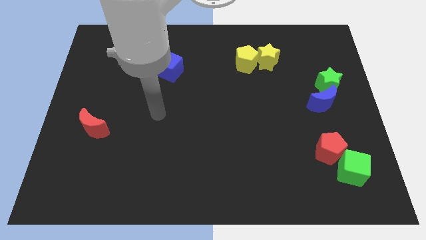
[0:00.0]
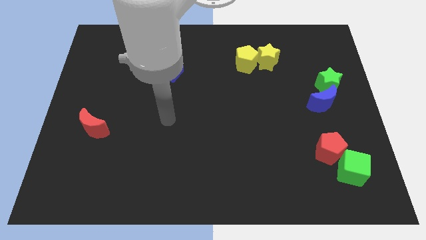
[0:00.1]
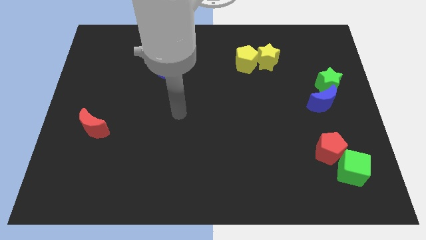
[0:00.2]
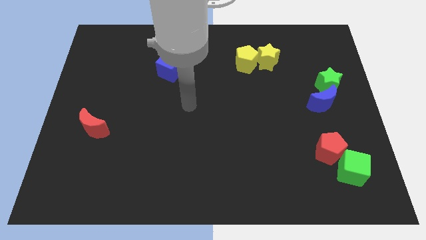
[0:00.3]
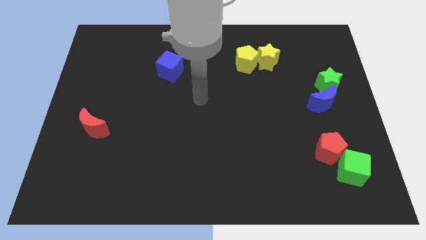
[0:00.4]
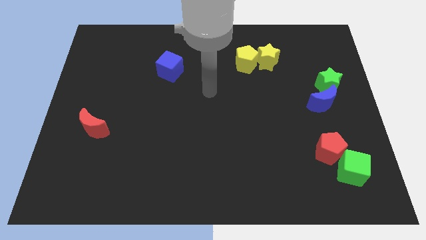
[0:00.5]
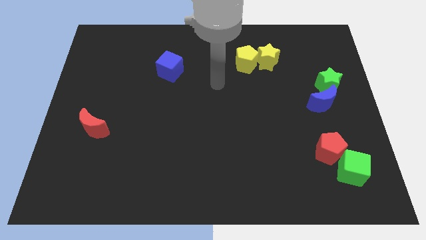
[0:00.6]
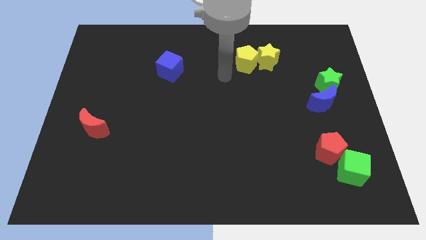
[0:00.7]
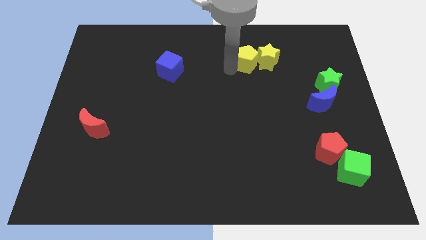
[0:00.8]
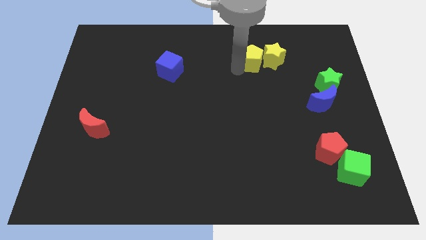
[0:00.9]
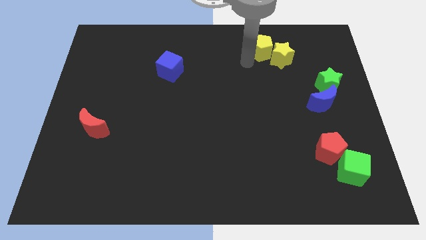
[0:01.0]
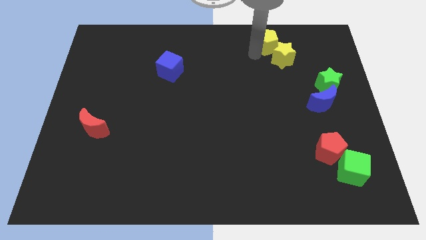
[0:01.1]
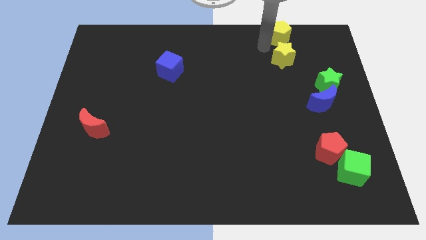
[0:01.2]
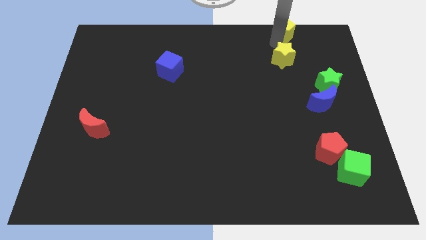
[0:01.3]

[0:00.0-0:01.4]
move the yellow star away from the yellow pentagon

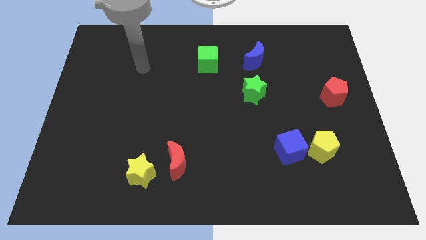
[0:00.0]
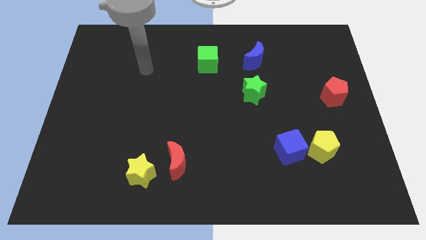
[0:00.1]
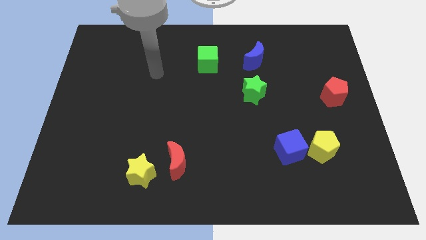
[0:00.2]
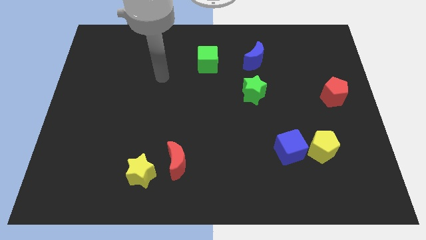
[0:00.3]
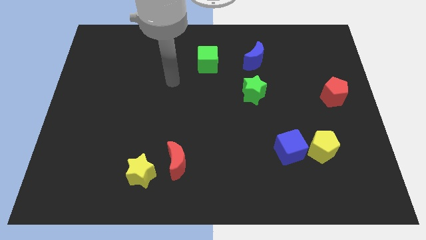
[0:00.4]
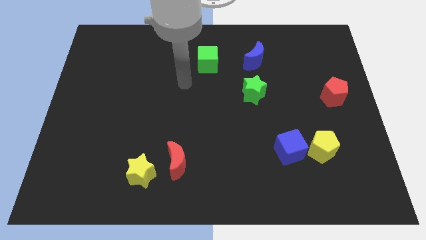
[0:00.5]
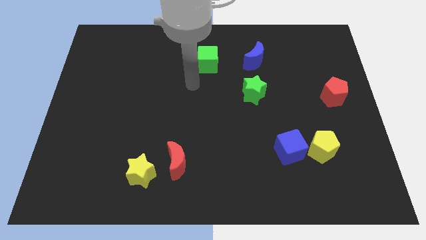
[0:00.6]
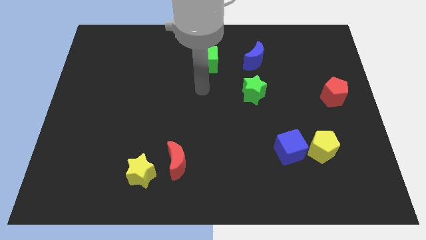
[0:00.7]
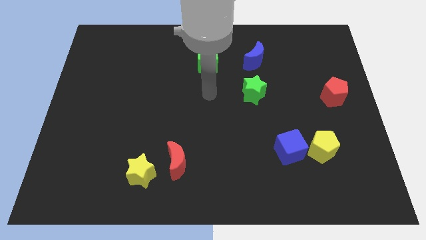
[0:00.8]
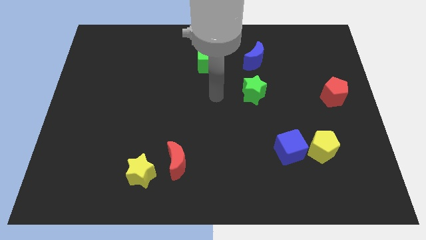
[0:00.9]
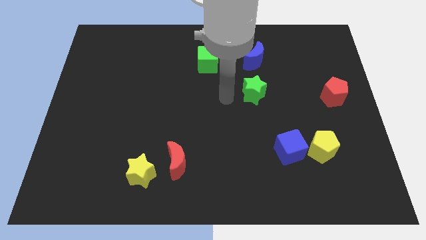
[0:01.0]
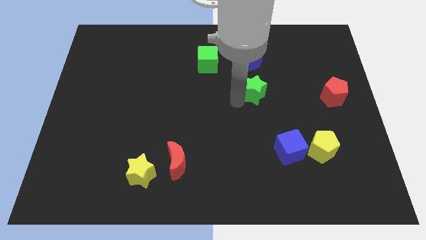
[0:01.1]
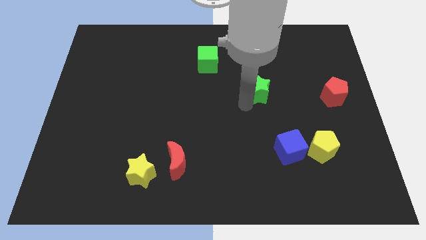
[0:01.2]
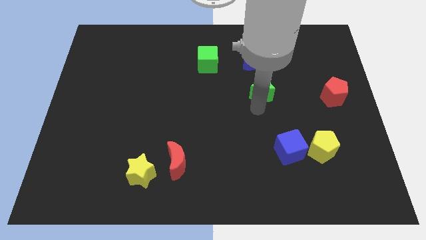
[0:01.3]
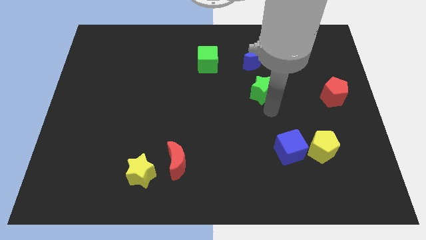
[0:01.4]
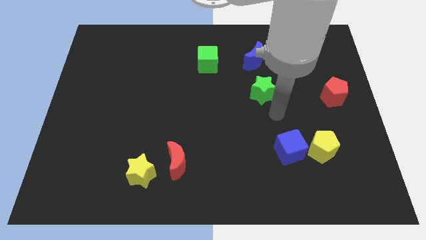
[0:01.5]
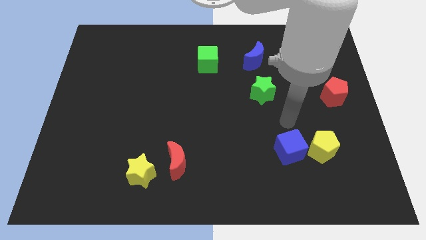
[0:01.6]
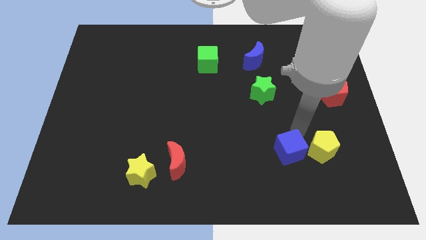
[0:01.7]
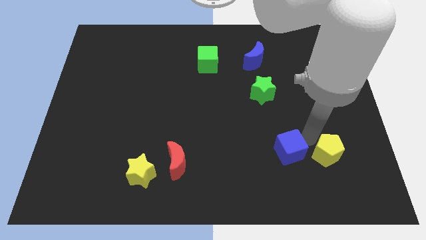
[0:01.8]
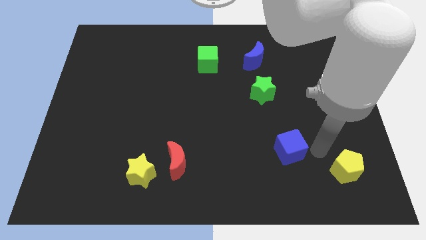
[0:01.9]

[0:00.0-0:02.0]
pull the blue cube apart from the yellow pentagon

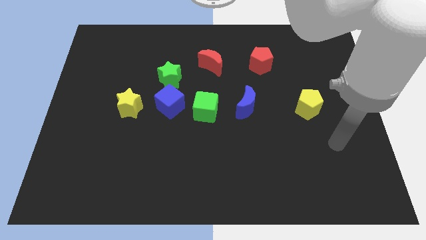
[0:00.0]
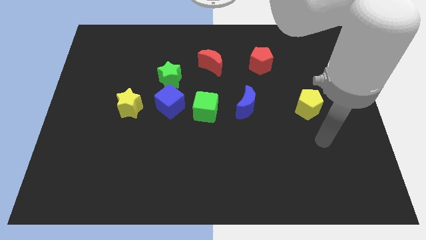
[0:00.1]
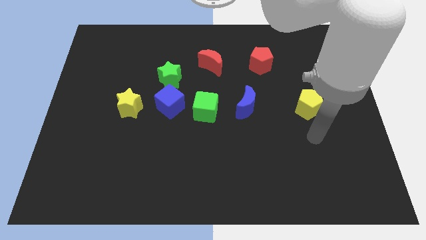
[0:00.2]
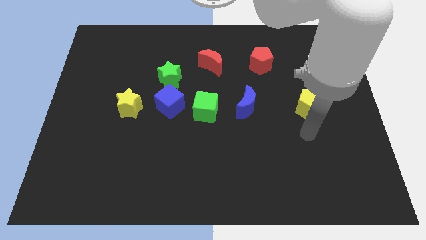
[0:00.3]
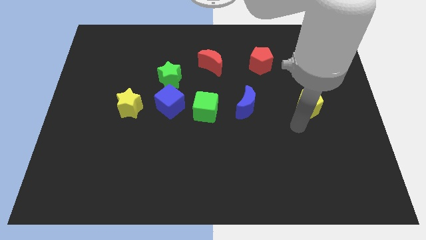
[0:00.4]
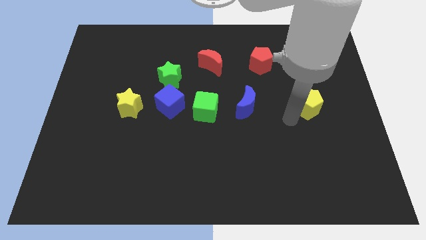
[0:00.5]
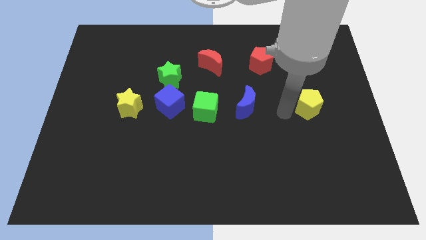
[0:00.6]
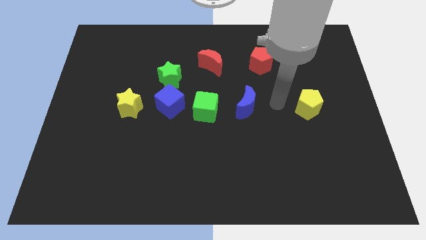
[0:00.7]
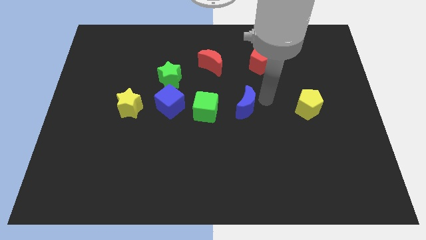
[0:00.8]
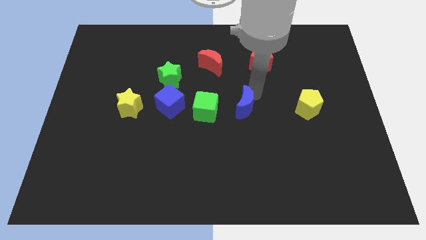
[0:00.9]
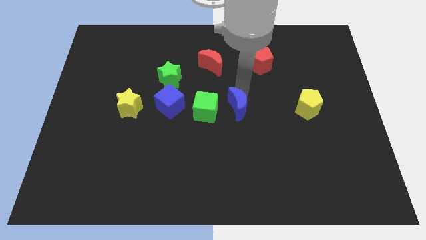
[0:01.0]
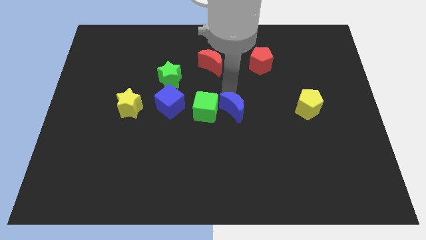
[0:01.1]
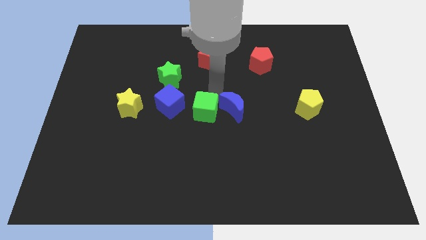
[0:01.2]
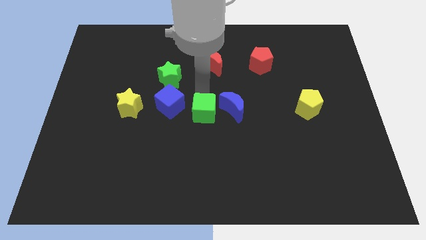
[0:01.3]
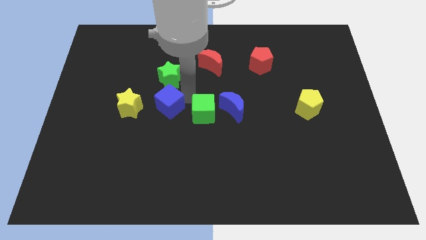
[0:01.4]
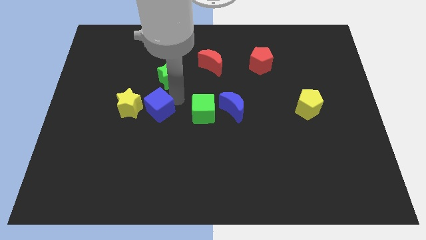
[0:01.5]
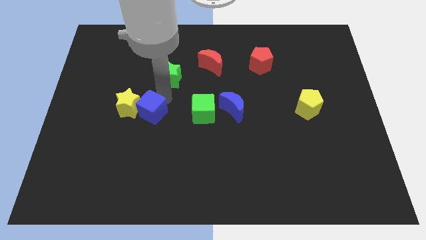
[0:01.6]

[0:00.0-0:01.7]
separate the green star from the blue cube

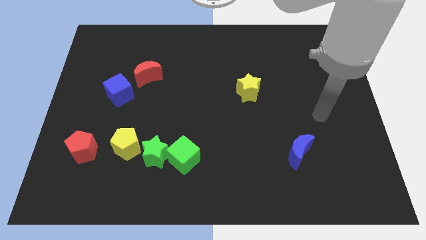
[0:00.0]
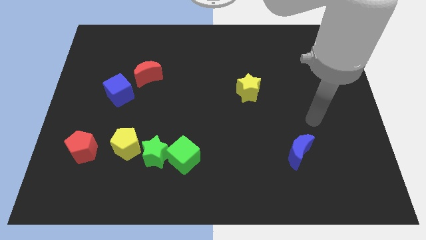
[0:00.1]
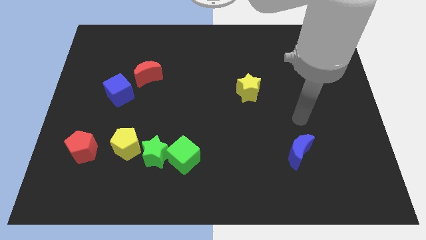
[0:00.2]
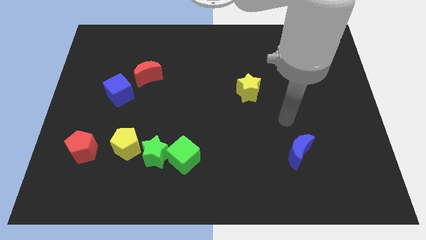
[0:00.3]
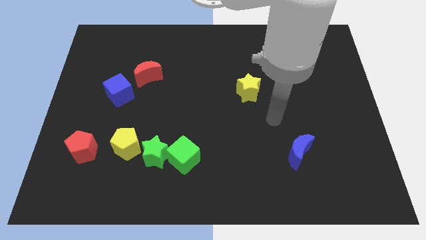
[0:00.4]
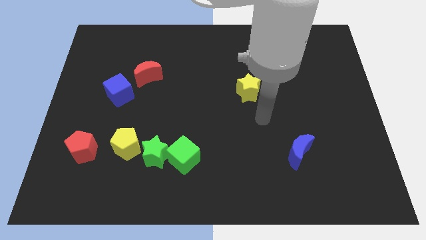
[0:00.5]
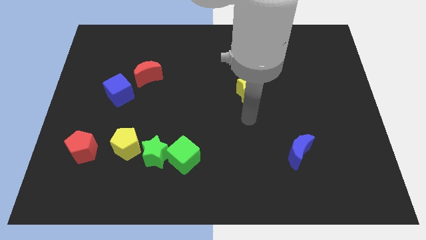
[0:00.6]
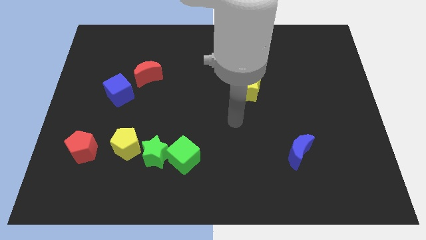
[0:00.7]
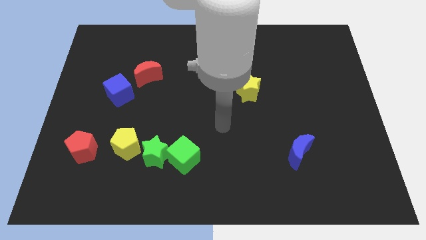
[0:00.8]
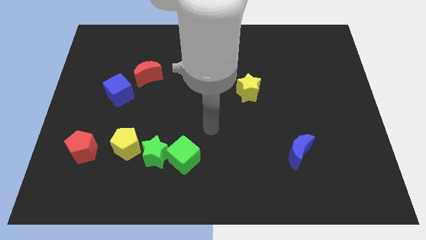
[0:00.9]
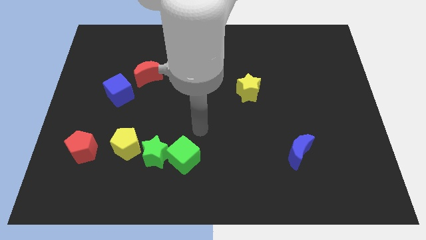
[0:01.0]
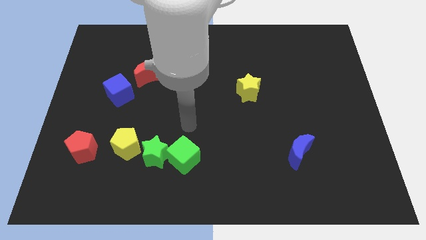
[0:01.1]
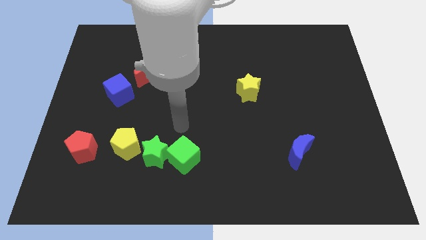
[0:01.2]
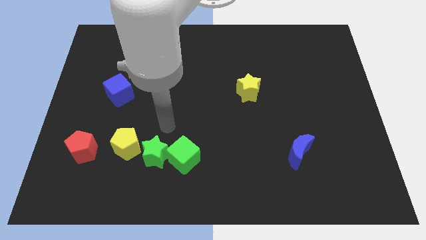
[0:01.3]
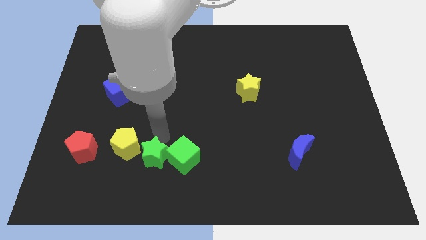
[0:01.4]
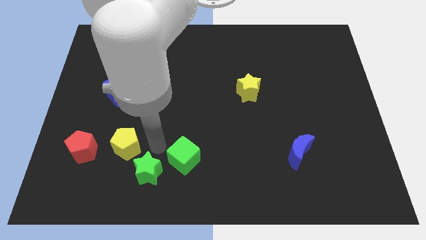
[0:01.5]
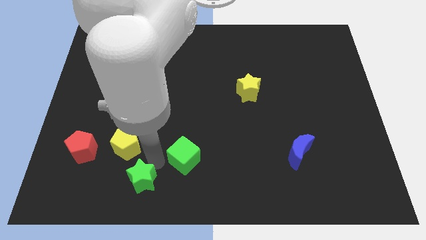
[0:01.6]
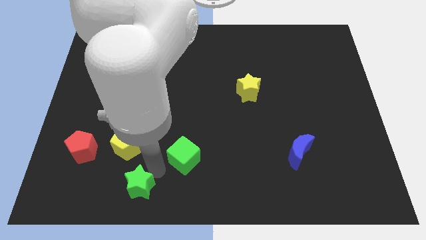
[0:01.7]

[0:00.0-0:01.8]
separate the green cube from the green star

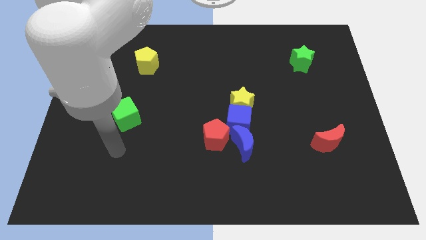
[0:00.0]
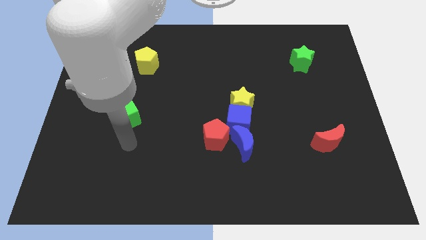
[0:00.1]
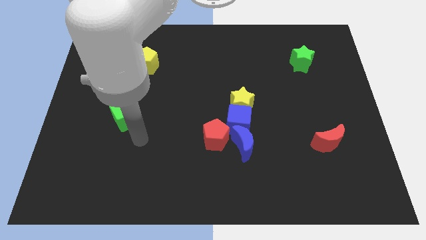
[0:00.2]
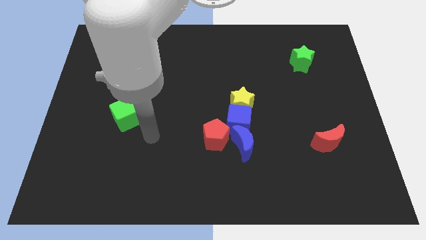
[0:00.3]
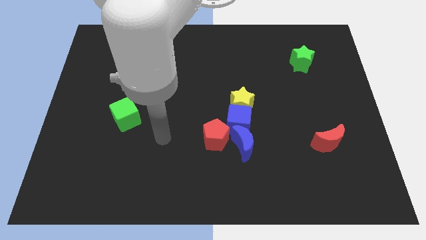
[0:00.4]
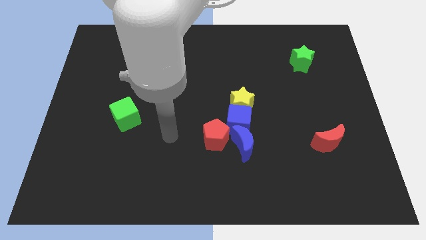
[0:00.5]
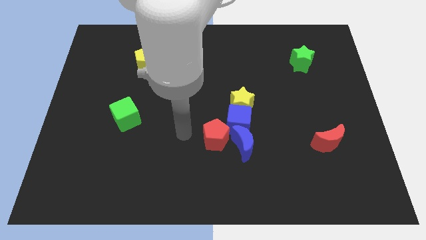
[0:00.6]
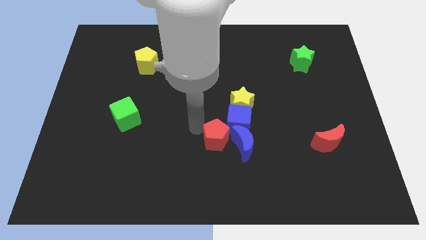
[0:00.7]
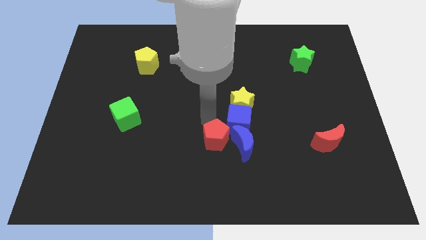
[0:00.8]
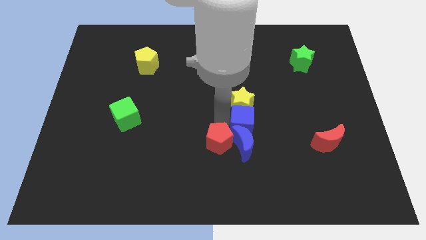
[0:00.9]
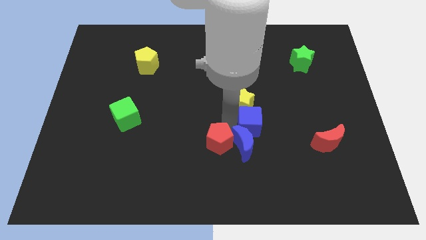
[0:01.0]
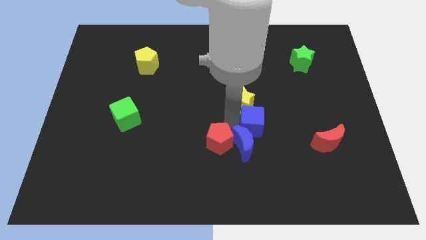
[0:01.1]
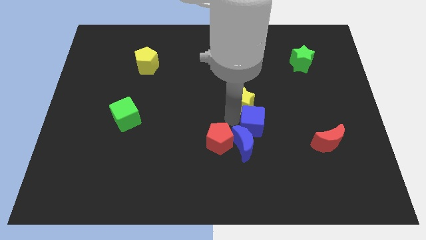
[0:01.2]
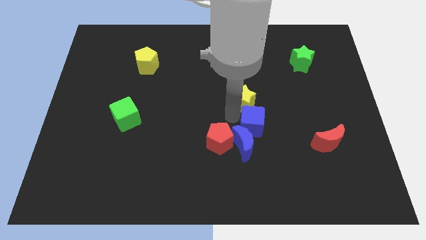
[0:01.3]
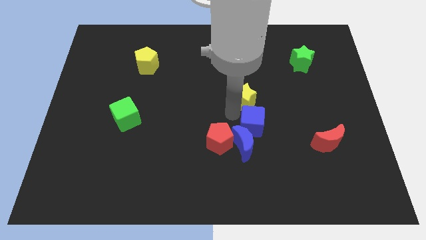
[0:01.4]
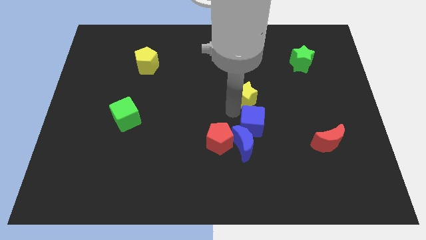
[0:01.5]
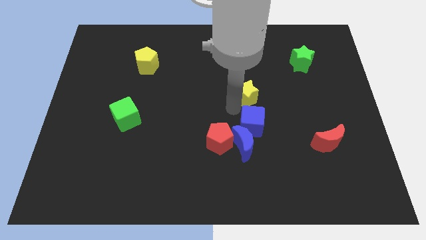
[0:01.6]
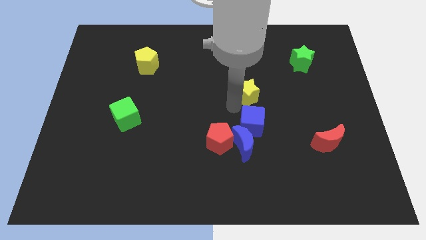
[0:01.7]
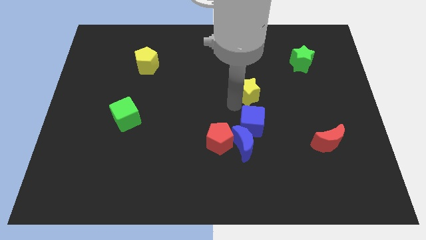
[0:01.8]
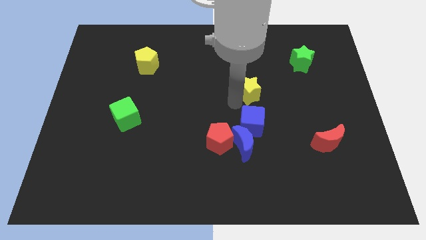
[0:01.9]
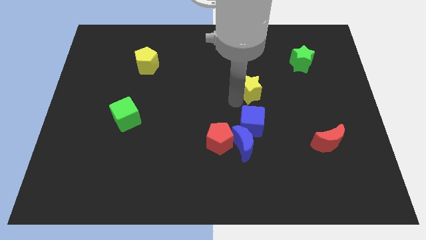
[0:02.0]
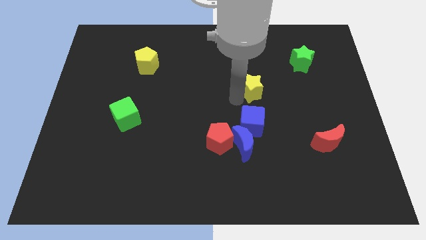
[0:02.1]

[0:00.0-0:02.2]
pull the yellow star apart from the blue cube

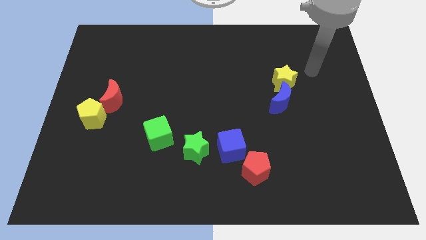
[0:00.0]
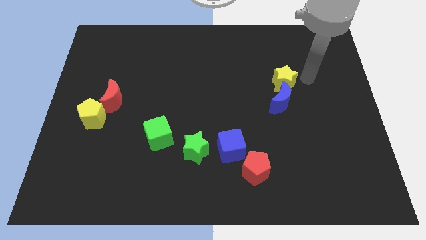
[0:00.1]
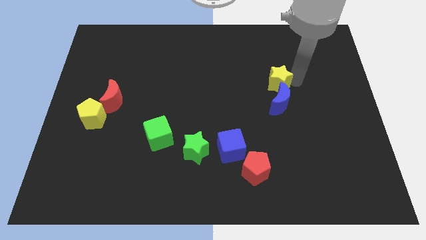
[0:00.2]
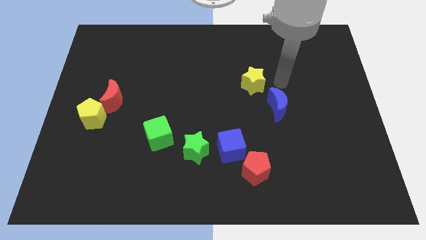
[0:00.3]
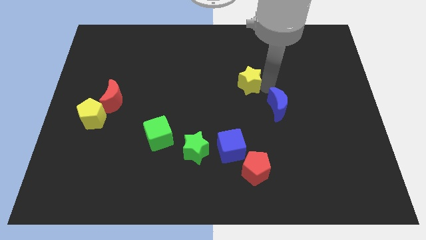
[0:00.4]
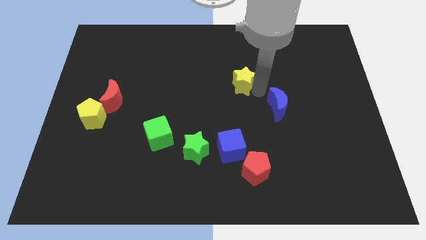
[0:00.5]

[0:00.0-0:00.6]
move the blue moon away from the yellow star
